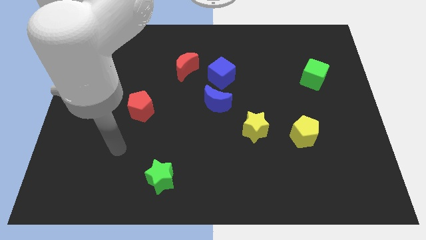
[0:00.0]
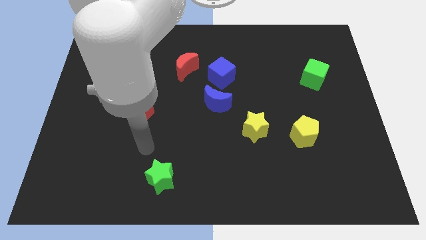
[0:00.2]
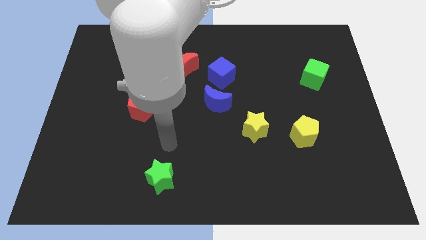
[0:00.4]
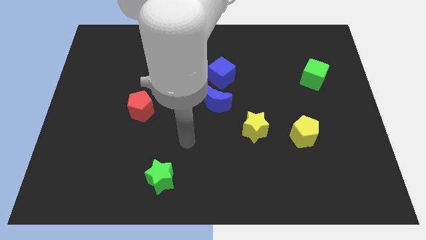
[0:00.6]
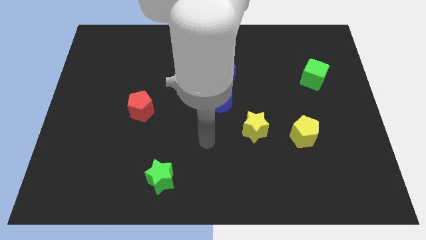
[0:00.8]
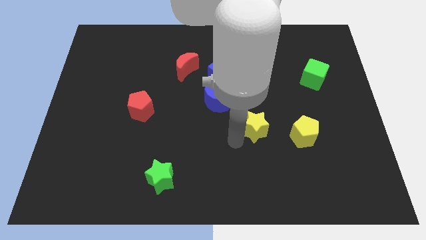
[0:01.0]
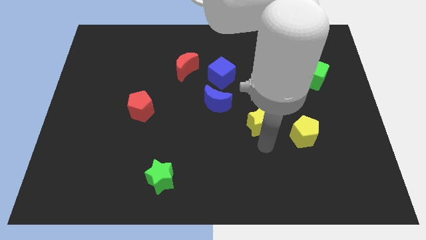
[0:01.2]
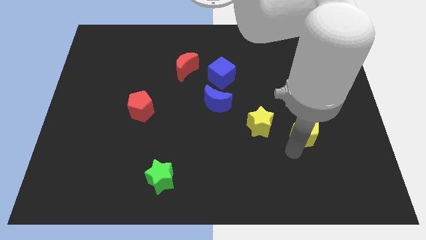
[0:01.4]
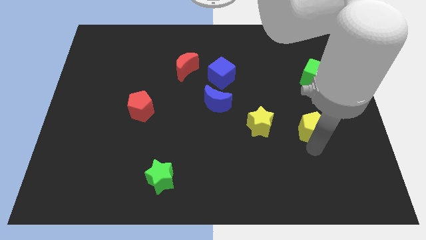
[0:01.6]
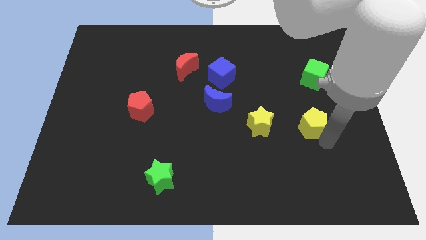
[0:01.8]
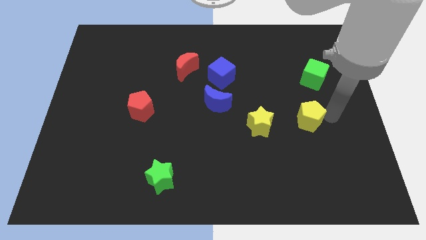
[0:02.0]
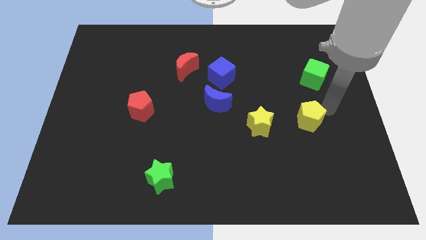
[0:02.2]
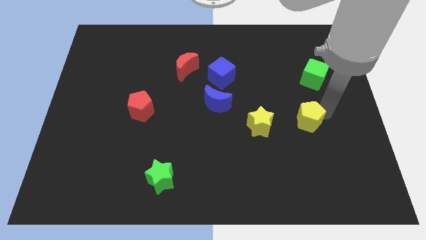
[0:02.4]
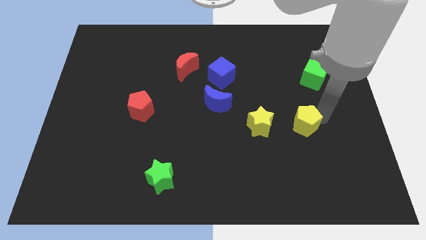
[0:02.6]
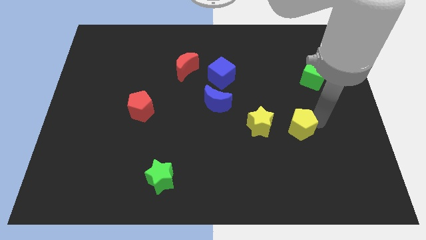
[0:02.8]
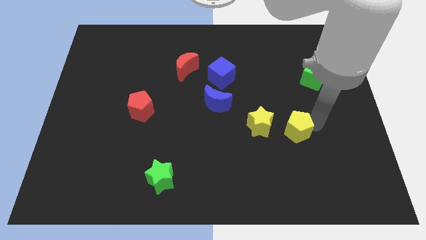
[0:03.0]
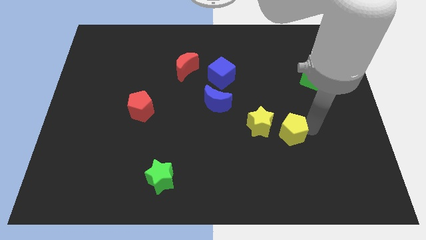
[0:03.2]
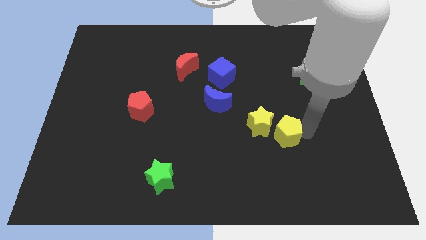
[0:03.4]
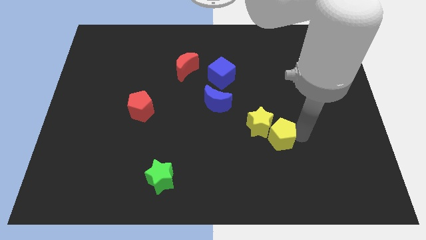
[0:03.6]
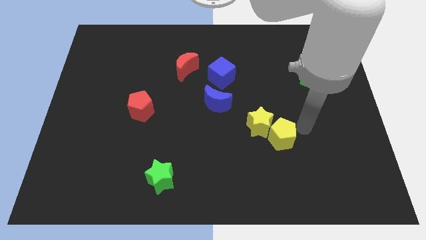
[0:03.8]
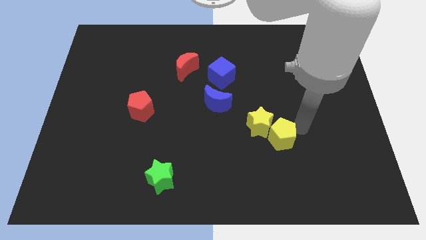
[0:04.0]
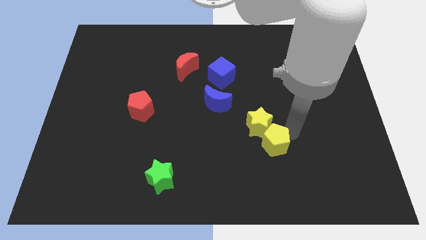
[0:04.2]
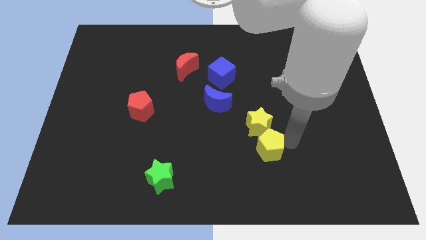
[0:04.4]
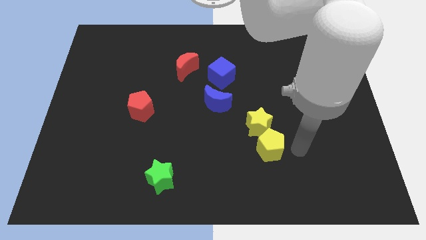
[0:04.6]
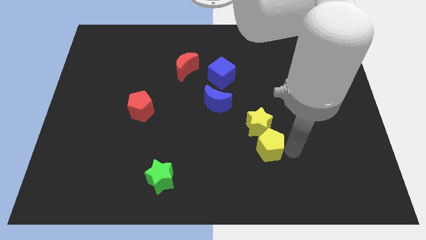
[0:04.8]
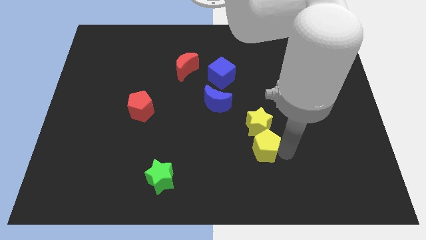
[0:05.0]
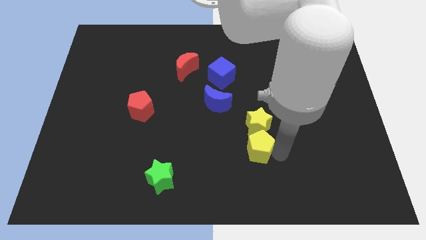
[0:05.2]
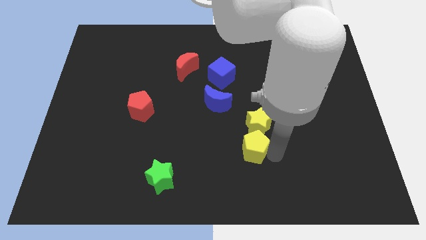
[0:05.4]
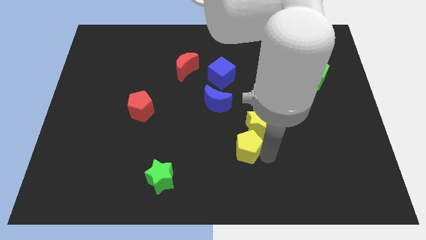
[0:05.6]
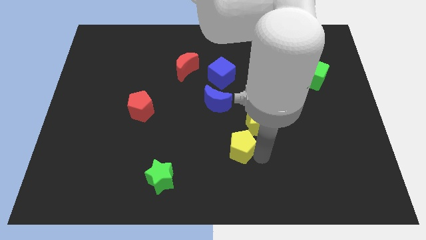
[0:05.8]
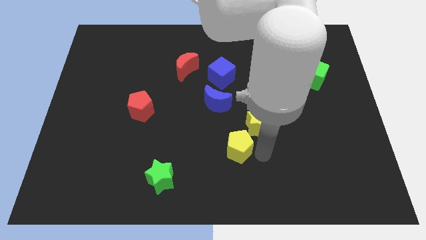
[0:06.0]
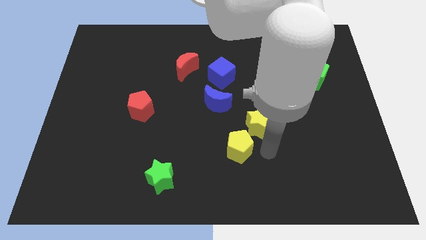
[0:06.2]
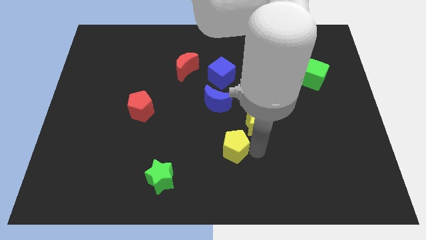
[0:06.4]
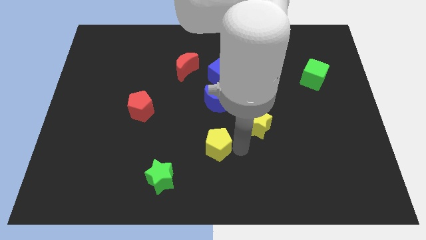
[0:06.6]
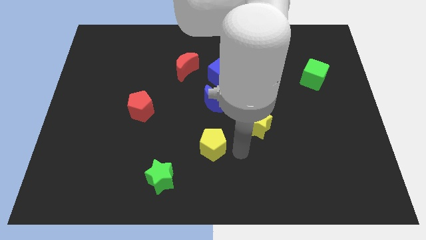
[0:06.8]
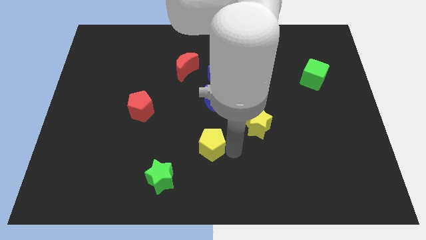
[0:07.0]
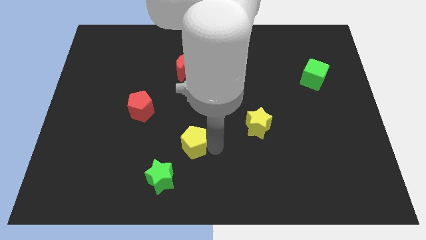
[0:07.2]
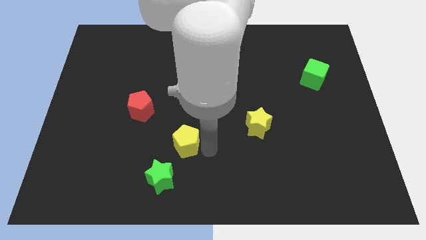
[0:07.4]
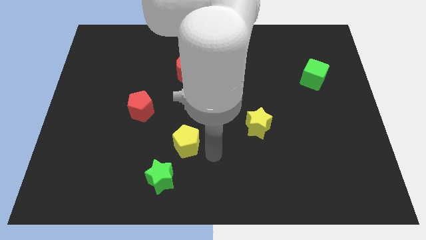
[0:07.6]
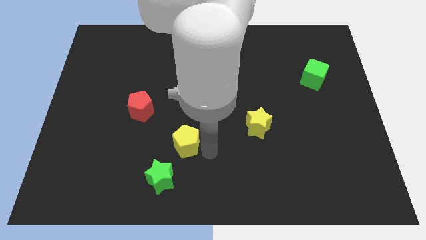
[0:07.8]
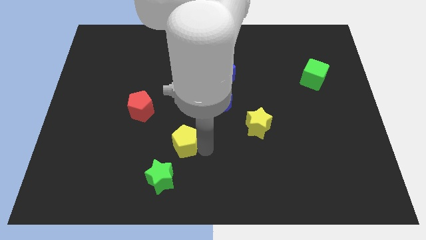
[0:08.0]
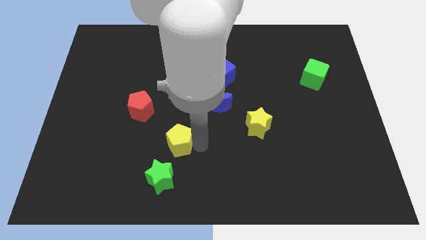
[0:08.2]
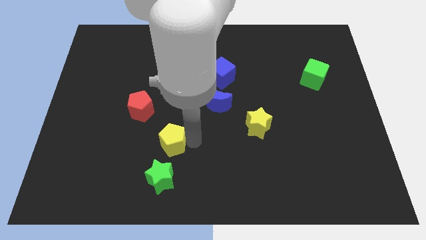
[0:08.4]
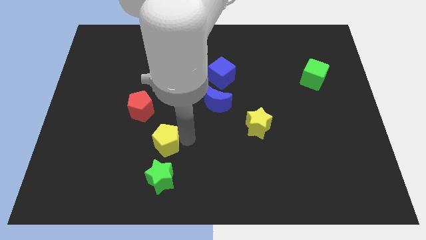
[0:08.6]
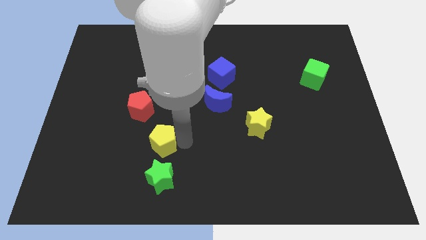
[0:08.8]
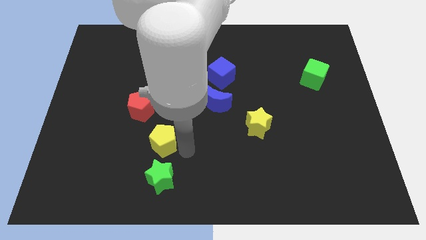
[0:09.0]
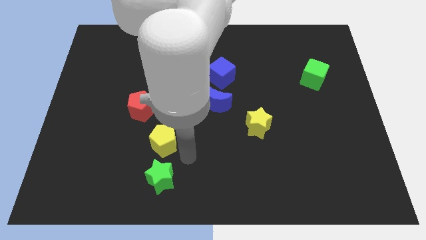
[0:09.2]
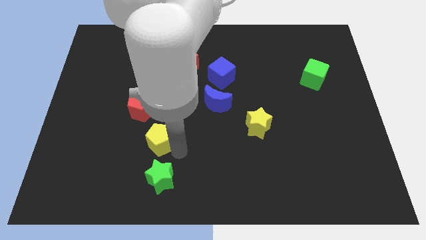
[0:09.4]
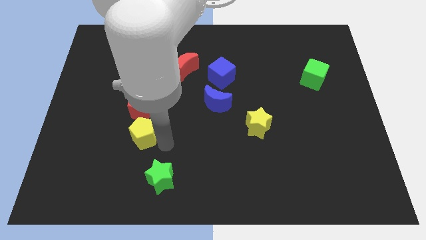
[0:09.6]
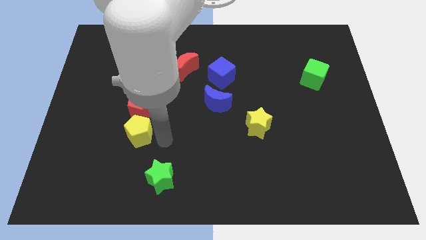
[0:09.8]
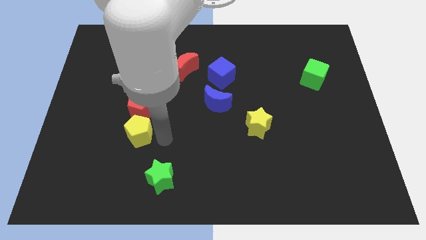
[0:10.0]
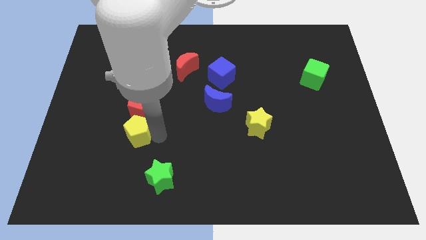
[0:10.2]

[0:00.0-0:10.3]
move the yellow pentagon to the bottom left side of the red pentagon

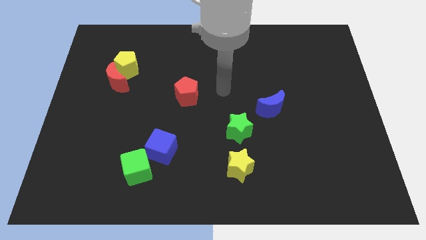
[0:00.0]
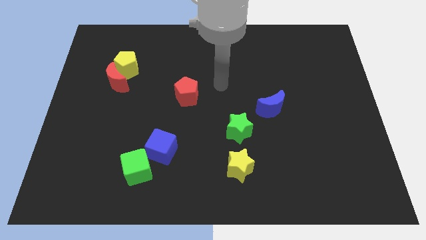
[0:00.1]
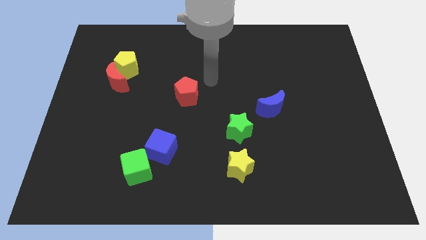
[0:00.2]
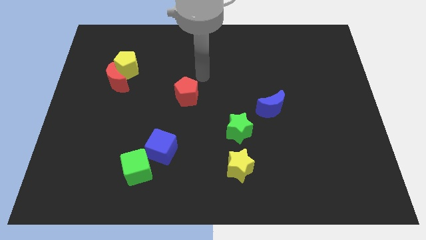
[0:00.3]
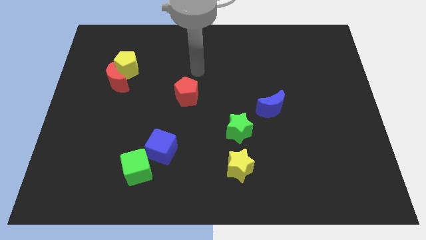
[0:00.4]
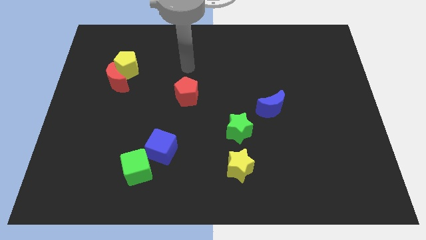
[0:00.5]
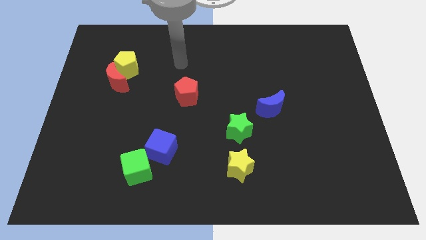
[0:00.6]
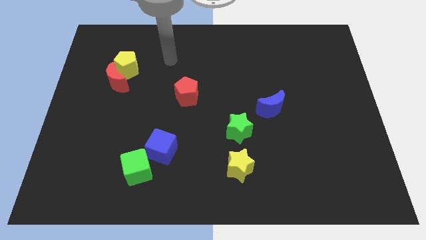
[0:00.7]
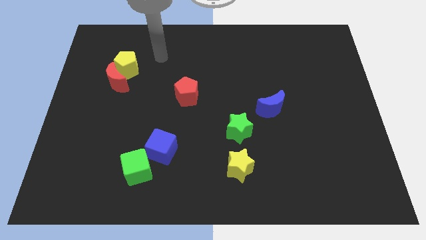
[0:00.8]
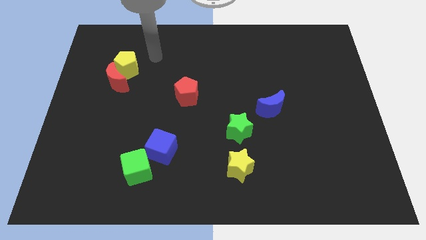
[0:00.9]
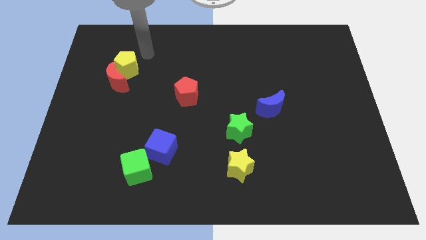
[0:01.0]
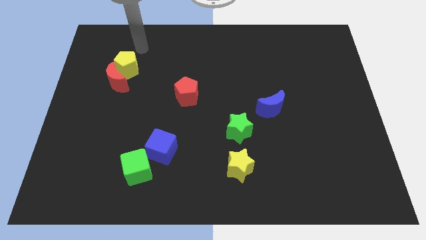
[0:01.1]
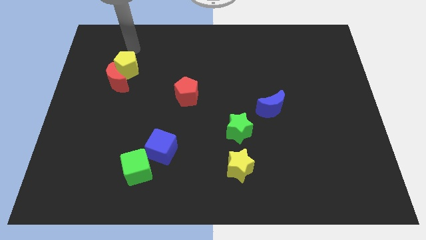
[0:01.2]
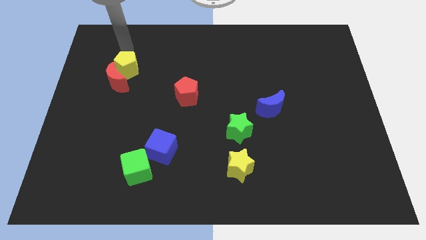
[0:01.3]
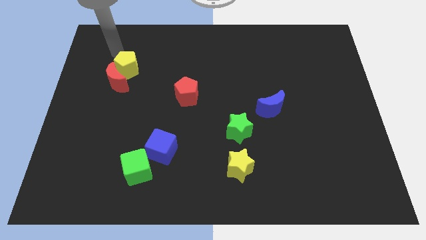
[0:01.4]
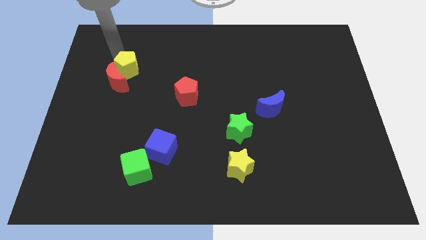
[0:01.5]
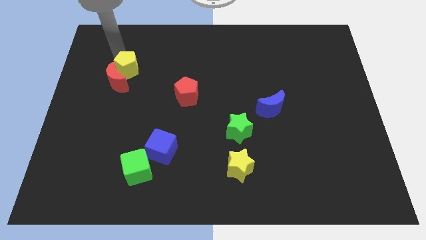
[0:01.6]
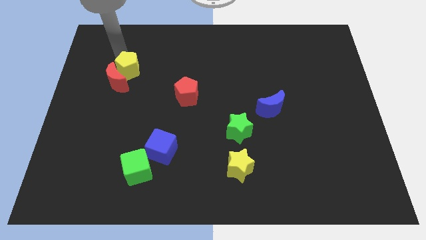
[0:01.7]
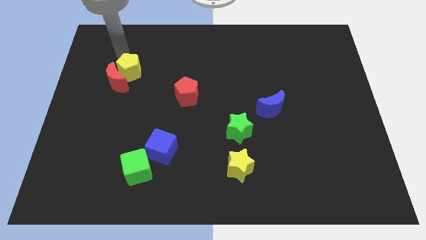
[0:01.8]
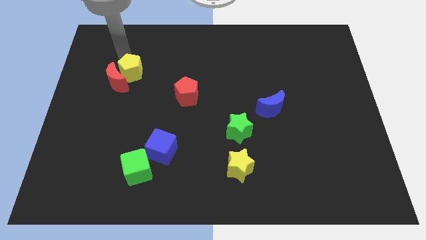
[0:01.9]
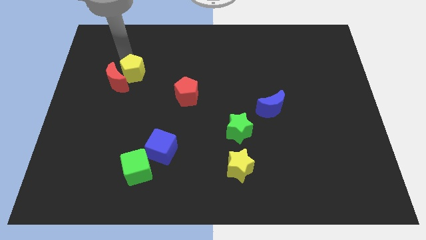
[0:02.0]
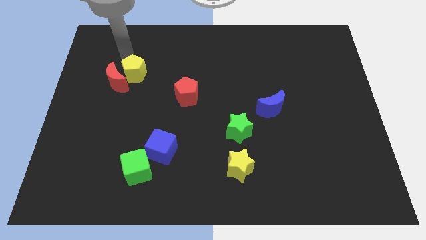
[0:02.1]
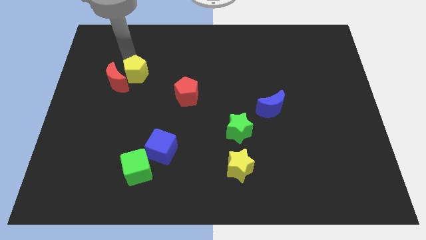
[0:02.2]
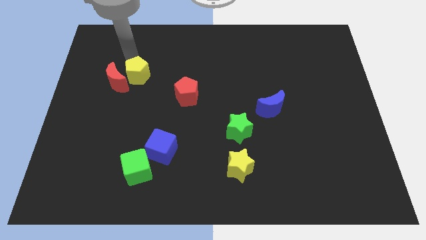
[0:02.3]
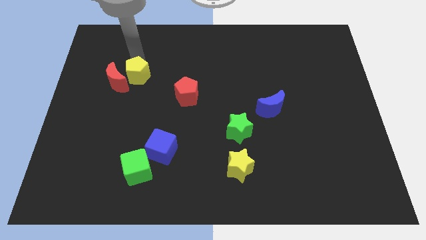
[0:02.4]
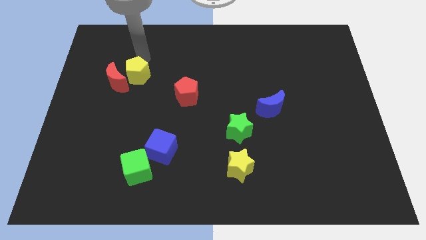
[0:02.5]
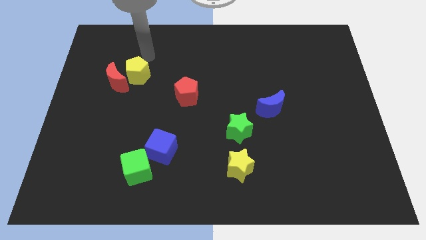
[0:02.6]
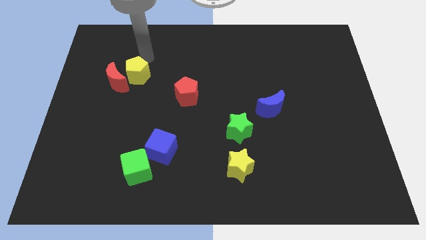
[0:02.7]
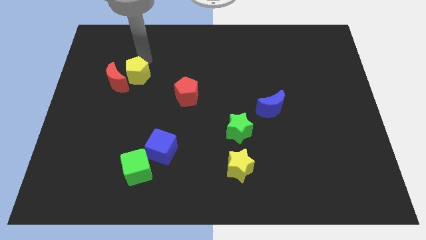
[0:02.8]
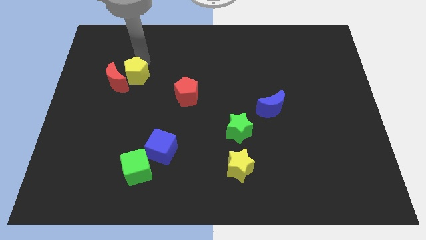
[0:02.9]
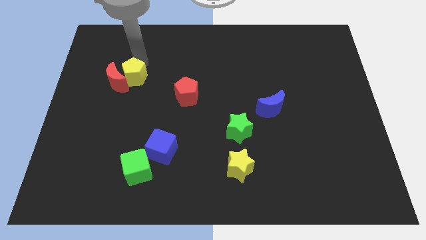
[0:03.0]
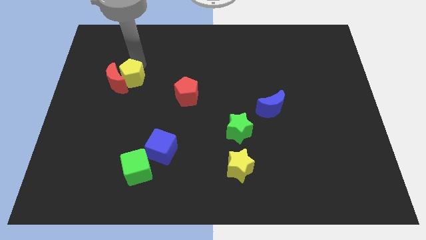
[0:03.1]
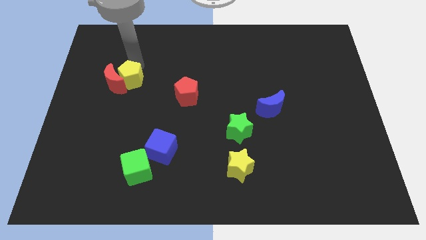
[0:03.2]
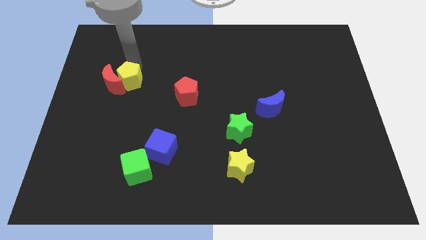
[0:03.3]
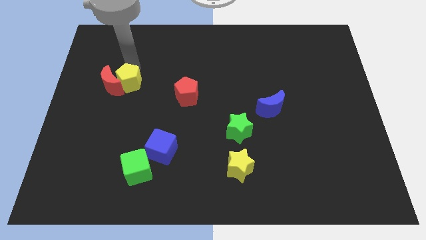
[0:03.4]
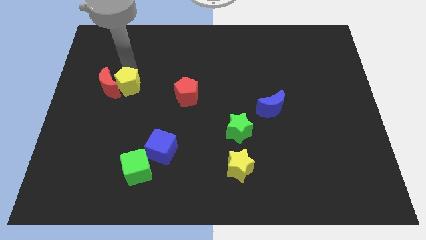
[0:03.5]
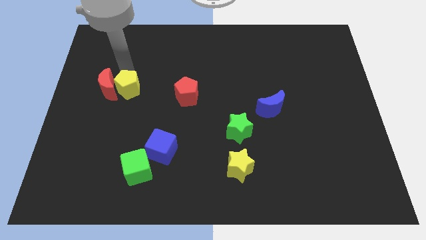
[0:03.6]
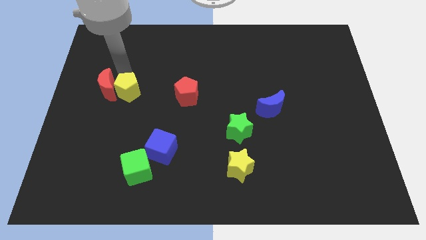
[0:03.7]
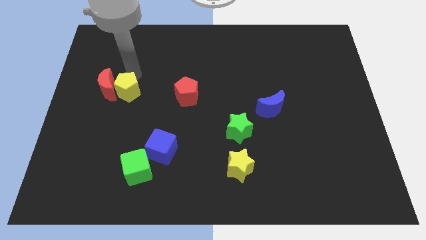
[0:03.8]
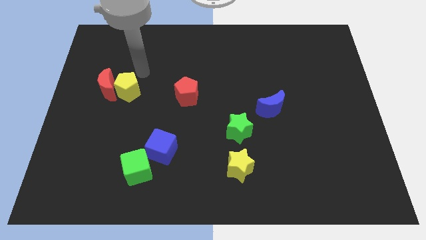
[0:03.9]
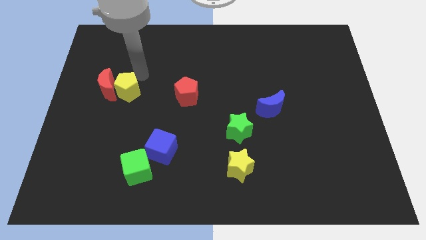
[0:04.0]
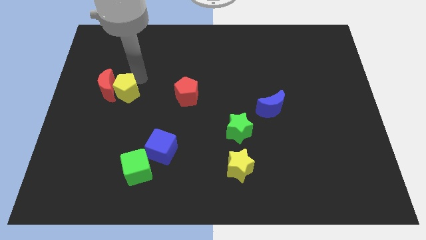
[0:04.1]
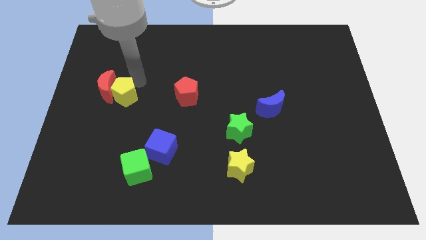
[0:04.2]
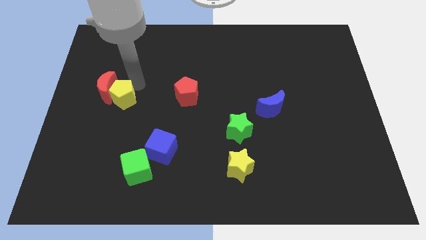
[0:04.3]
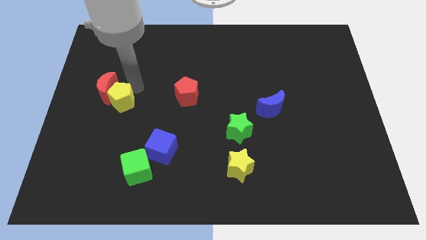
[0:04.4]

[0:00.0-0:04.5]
push the yellow pentagon to the bottom side of the red moon
